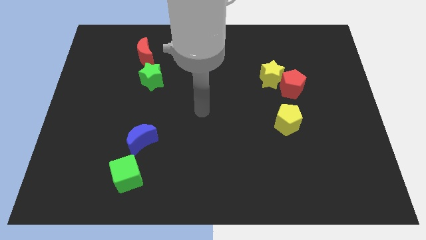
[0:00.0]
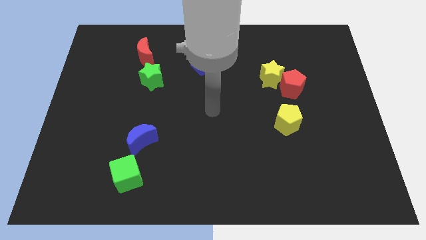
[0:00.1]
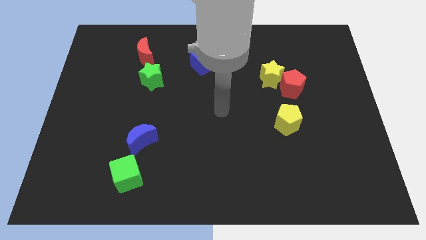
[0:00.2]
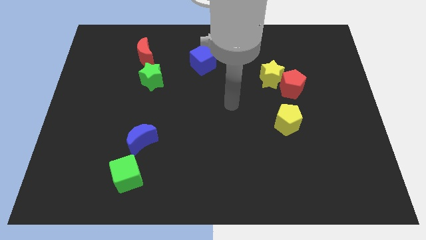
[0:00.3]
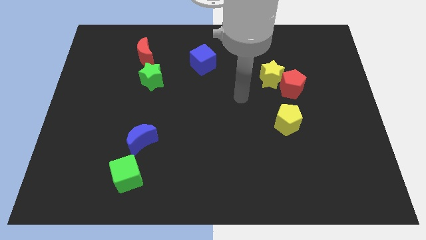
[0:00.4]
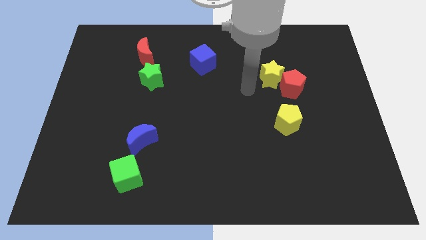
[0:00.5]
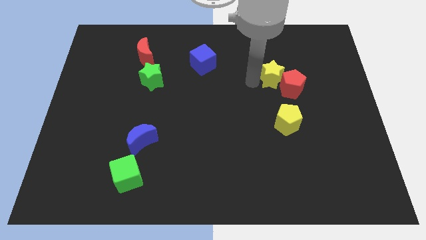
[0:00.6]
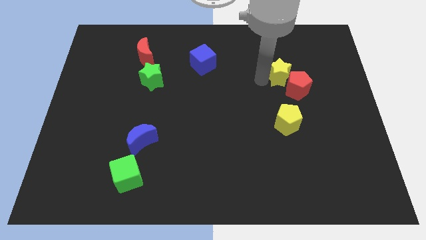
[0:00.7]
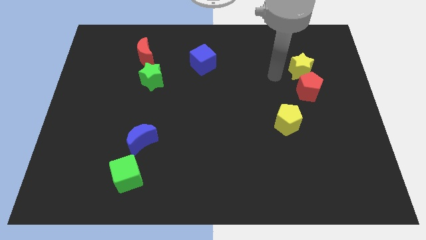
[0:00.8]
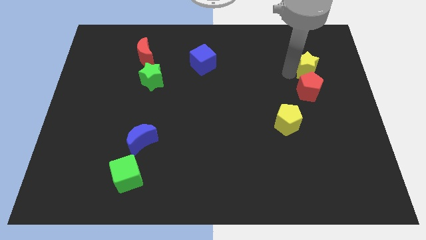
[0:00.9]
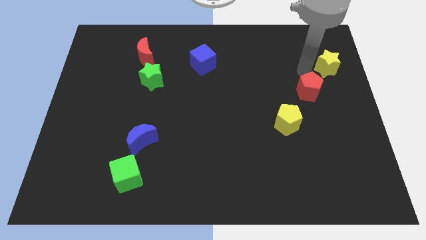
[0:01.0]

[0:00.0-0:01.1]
move the red pentagon away from the yellow star

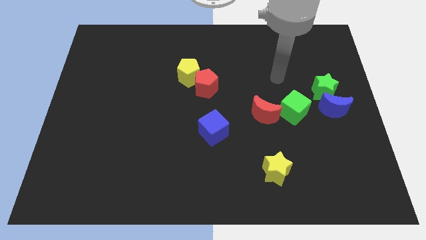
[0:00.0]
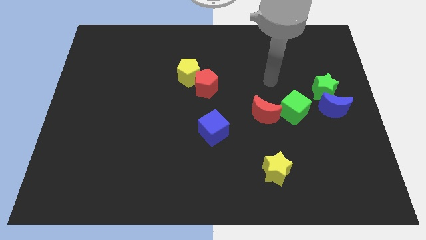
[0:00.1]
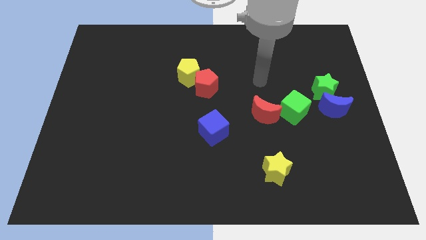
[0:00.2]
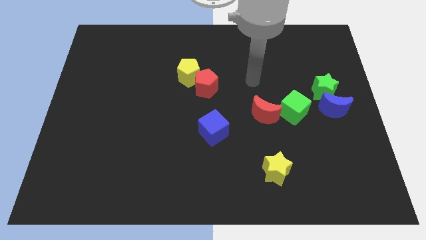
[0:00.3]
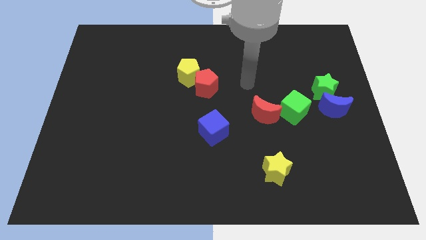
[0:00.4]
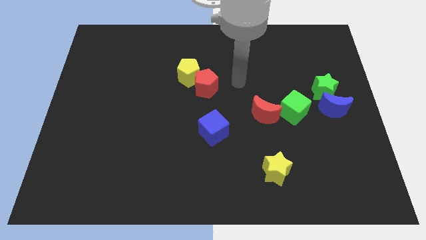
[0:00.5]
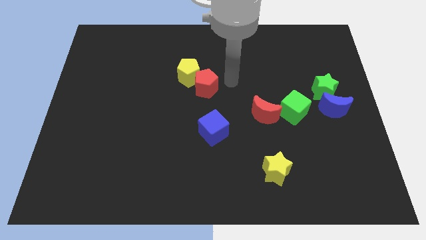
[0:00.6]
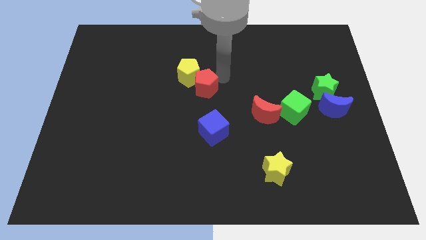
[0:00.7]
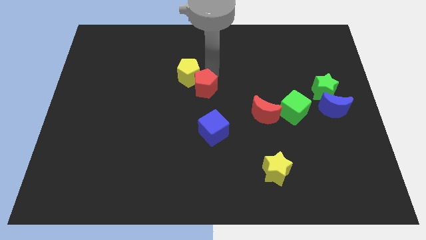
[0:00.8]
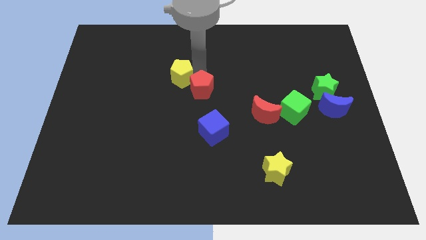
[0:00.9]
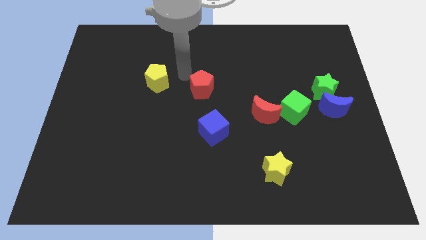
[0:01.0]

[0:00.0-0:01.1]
move the red pentagon away from the yellow pentagon

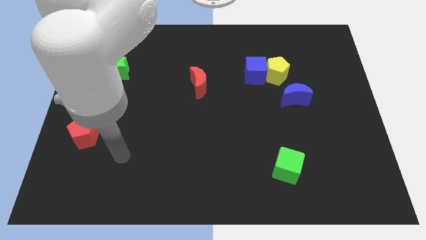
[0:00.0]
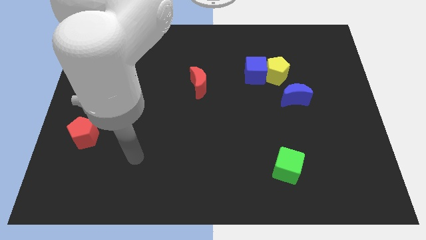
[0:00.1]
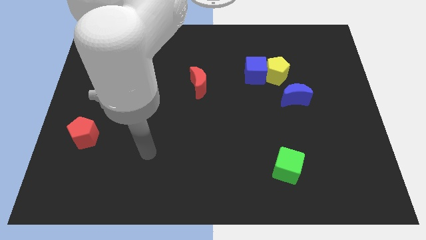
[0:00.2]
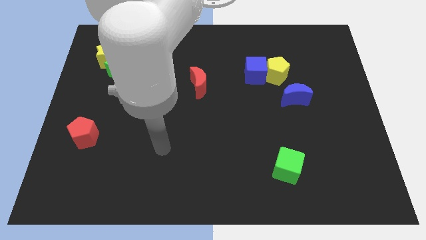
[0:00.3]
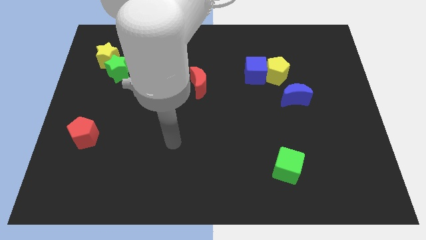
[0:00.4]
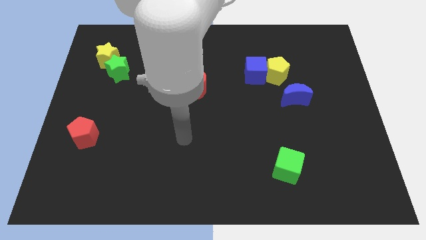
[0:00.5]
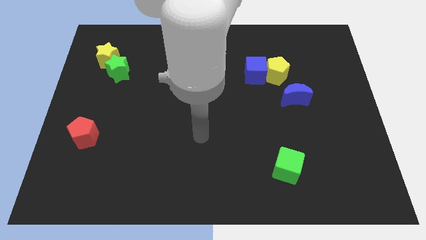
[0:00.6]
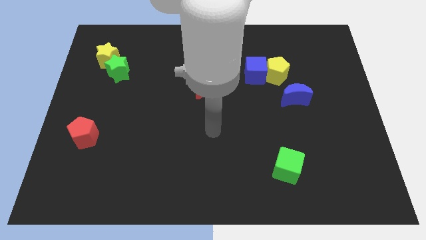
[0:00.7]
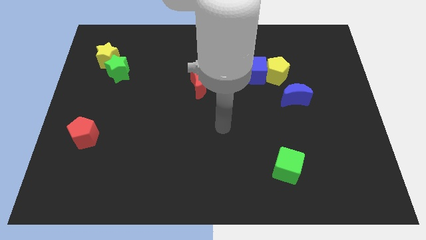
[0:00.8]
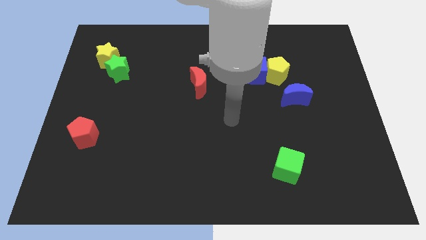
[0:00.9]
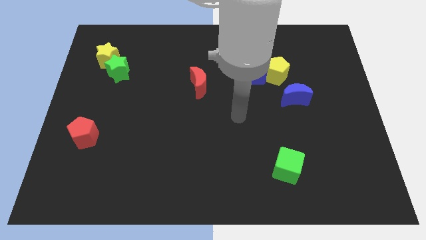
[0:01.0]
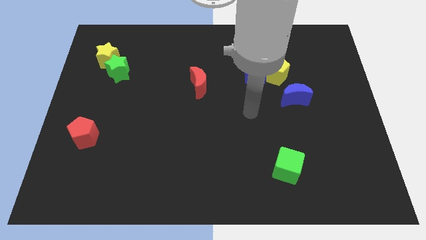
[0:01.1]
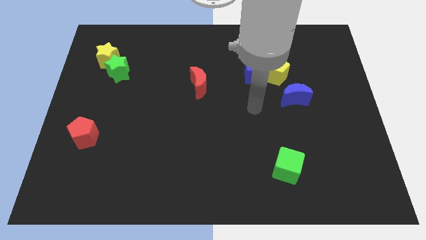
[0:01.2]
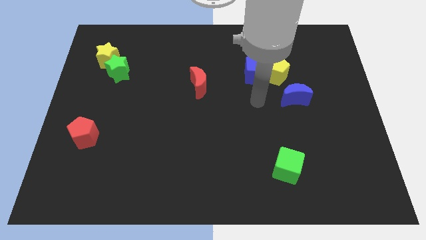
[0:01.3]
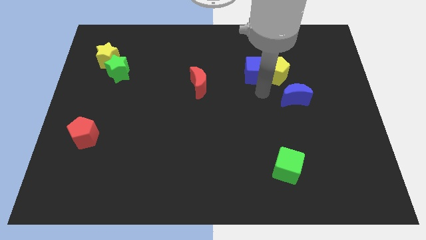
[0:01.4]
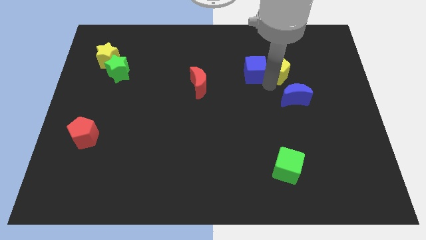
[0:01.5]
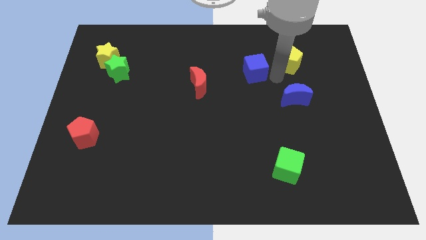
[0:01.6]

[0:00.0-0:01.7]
separate the blue cube from the yellow pentagon

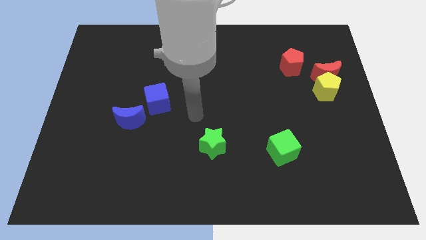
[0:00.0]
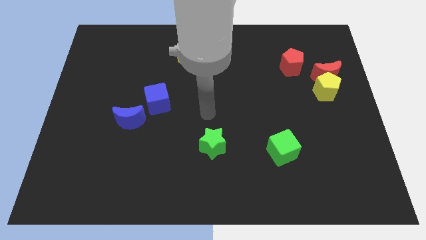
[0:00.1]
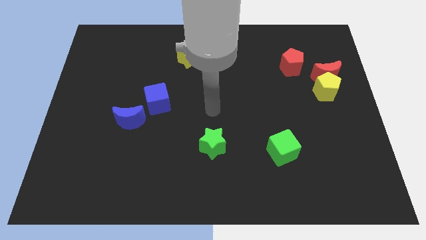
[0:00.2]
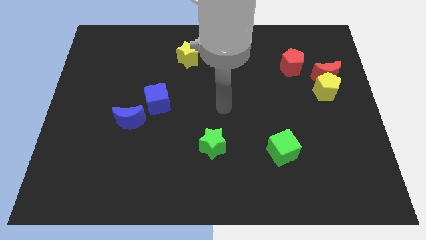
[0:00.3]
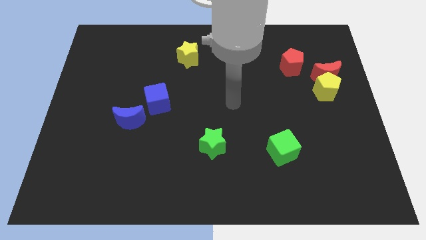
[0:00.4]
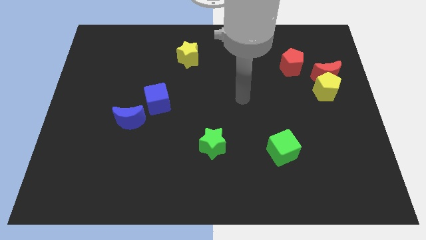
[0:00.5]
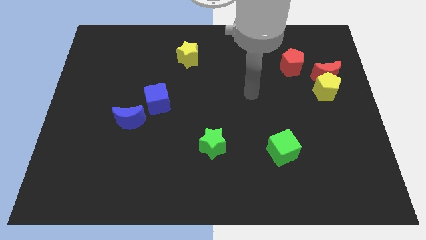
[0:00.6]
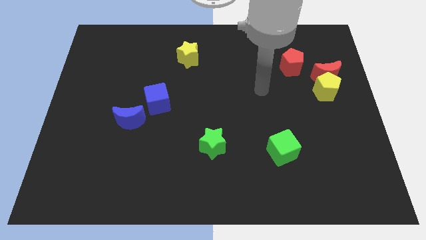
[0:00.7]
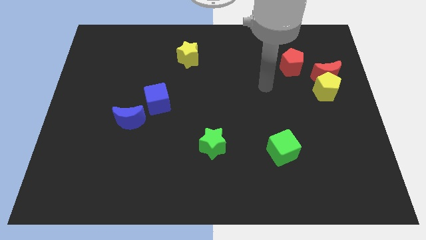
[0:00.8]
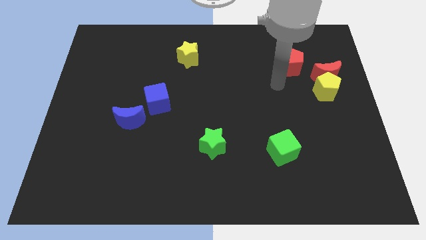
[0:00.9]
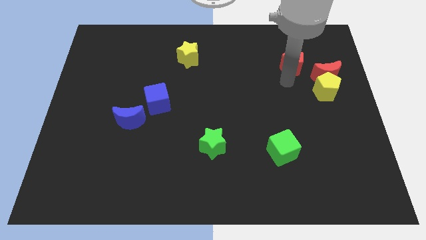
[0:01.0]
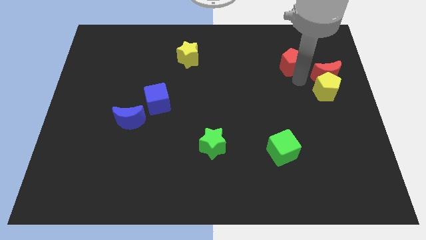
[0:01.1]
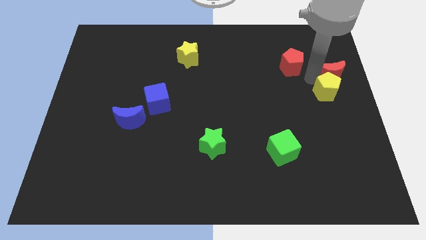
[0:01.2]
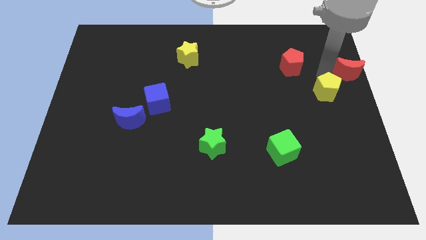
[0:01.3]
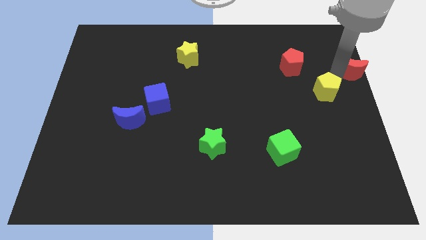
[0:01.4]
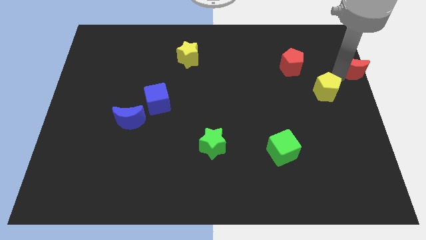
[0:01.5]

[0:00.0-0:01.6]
move the yellow pentagon away from the red moon

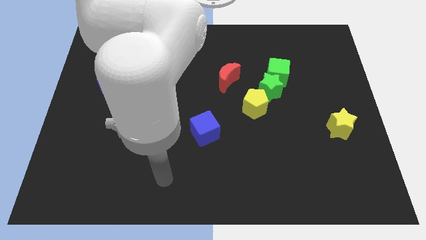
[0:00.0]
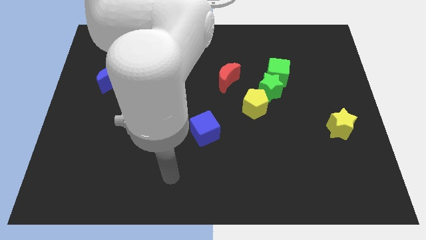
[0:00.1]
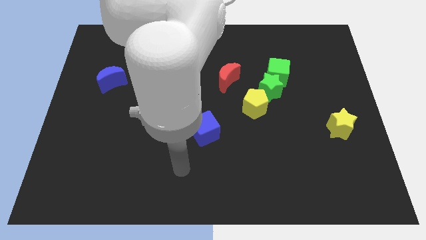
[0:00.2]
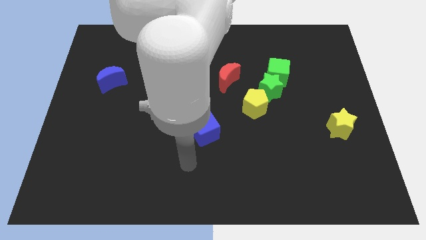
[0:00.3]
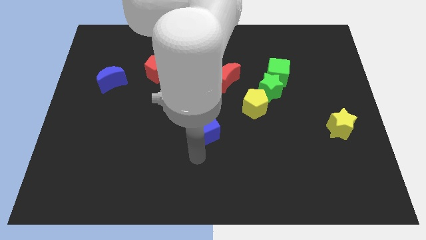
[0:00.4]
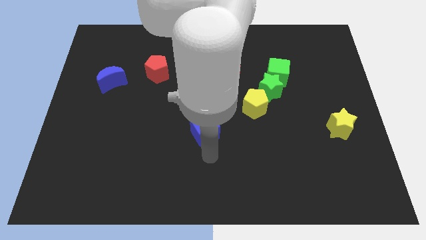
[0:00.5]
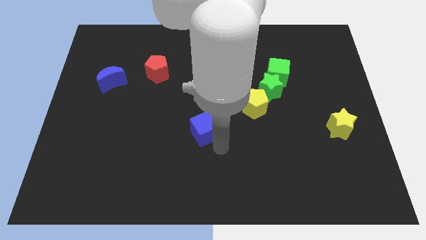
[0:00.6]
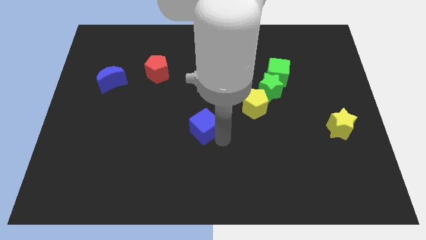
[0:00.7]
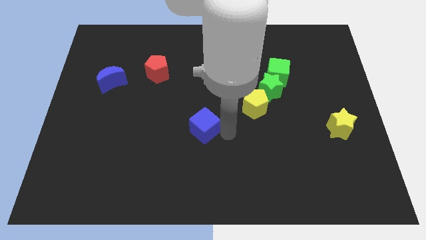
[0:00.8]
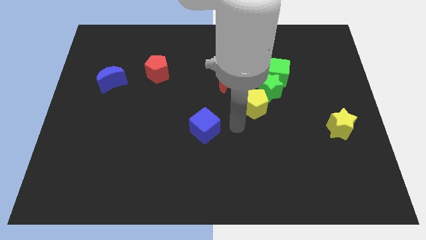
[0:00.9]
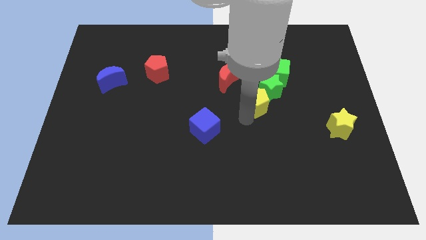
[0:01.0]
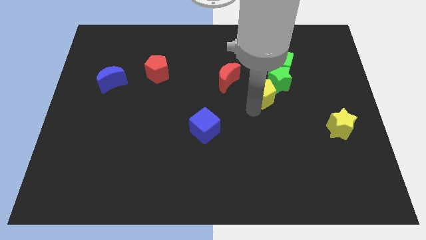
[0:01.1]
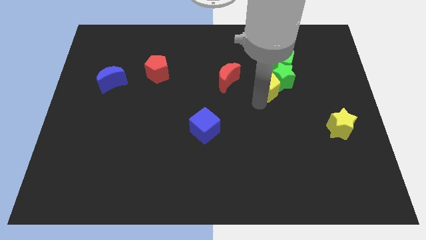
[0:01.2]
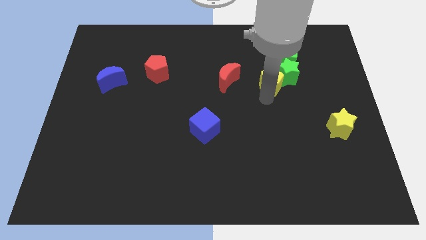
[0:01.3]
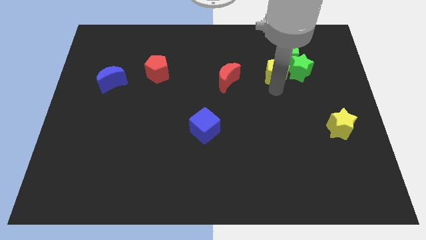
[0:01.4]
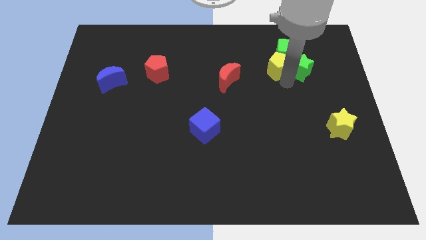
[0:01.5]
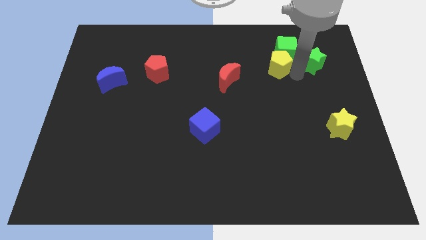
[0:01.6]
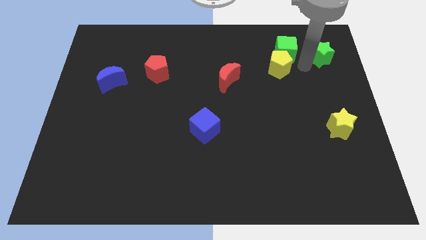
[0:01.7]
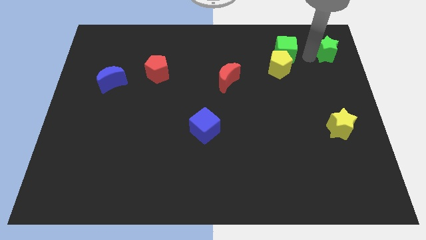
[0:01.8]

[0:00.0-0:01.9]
pull the green cube apart from the green star

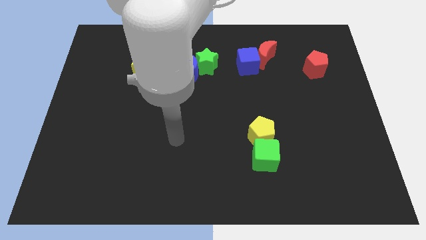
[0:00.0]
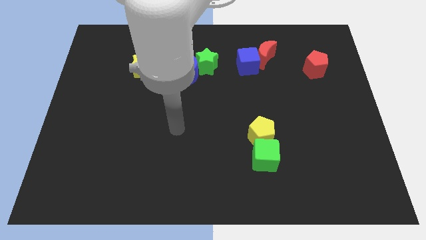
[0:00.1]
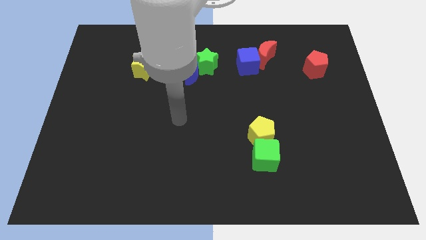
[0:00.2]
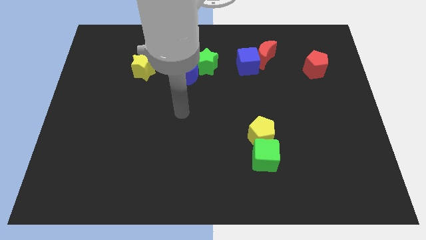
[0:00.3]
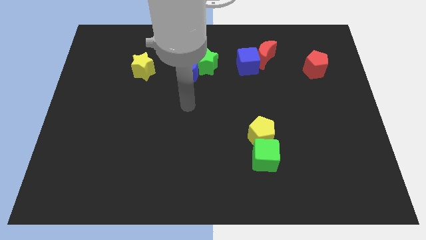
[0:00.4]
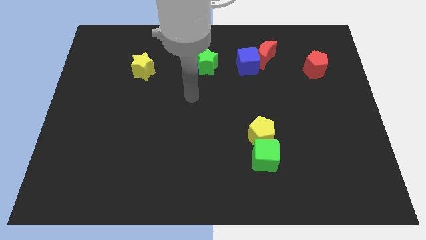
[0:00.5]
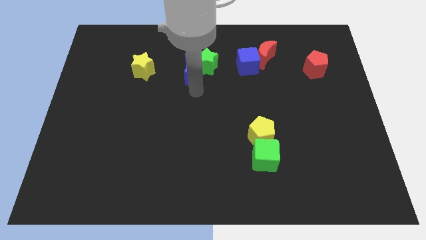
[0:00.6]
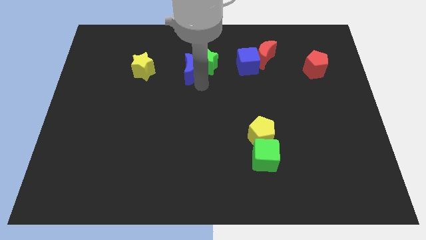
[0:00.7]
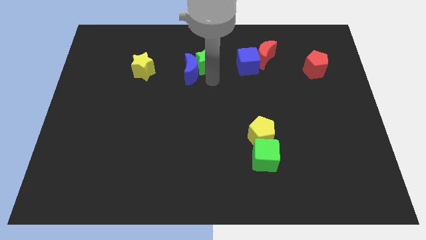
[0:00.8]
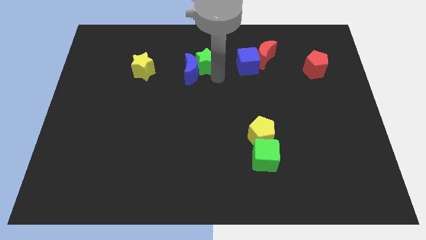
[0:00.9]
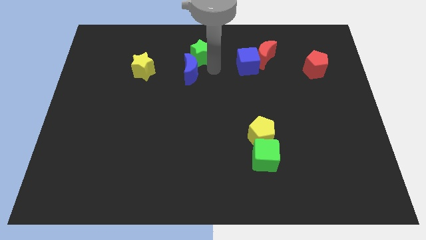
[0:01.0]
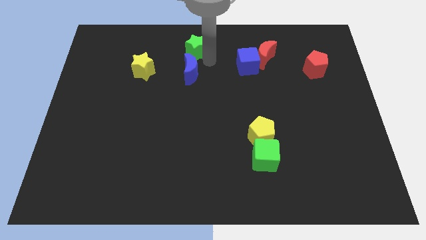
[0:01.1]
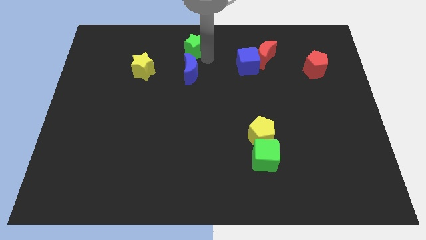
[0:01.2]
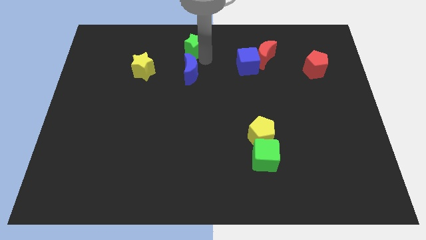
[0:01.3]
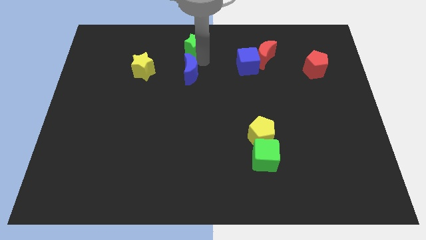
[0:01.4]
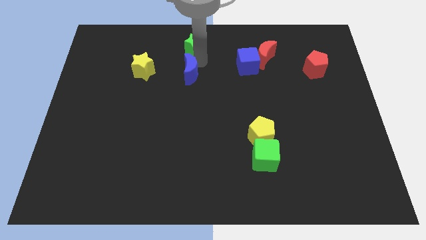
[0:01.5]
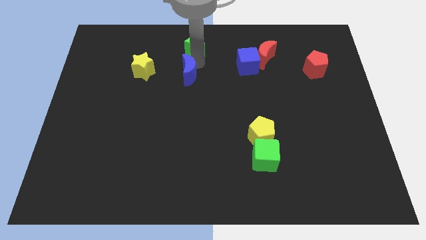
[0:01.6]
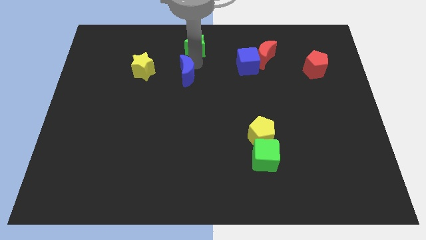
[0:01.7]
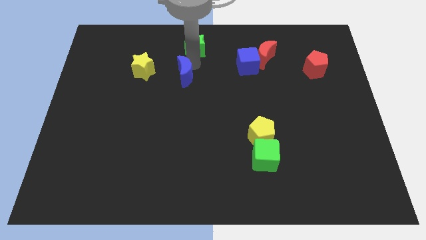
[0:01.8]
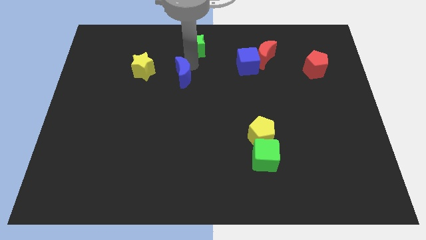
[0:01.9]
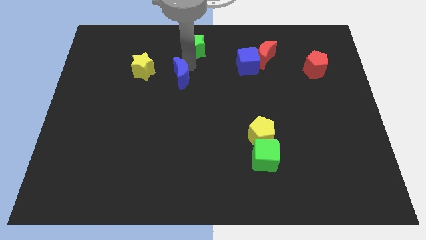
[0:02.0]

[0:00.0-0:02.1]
pull the blue moon apart from the green star
